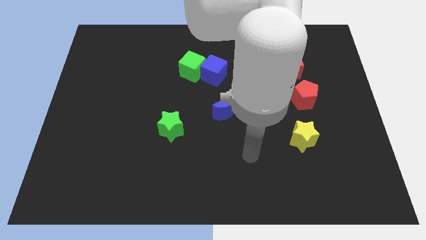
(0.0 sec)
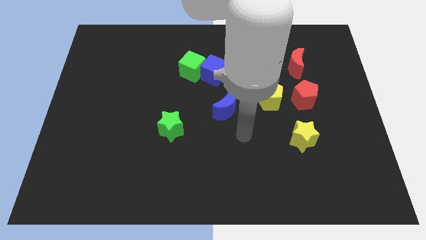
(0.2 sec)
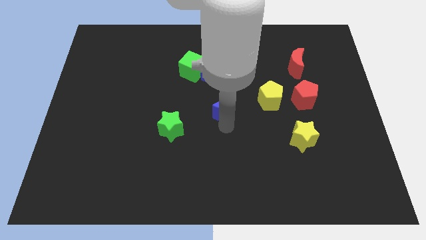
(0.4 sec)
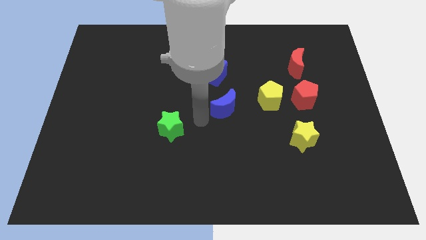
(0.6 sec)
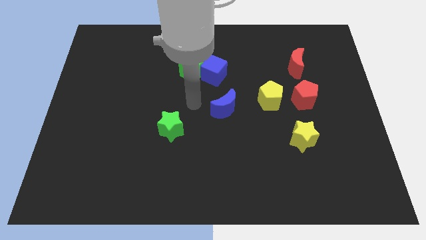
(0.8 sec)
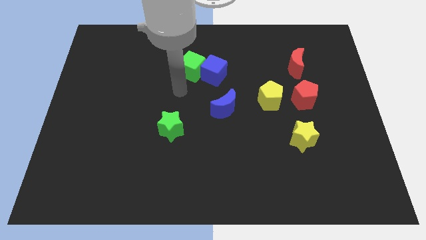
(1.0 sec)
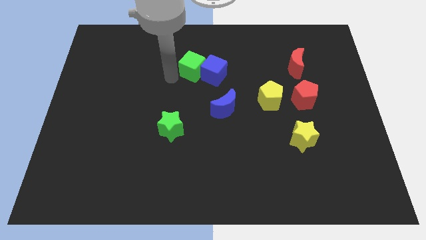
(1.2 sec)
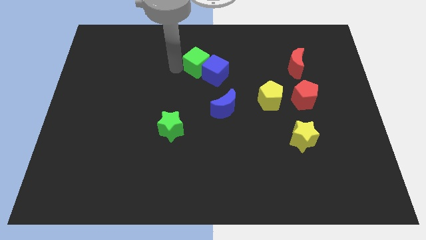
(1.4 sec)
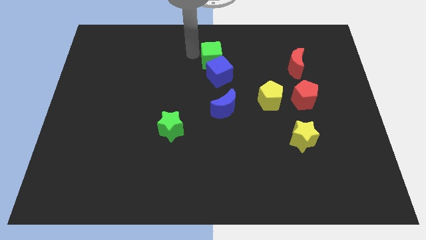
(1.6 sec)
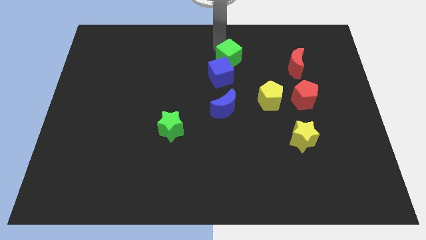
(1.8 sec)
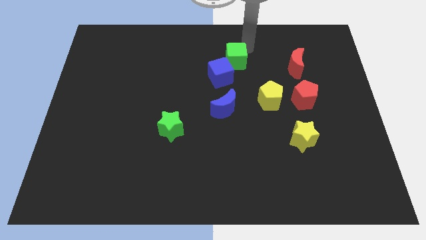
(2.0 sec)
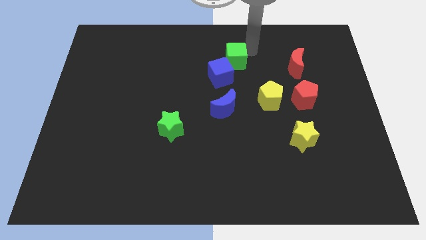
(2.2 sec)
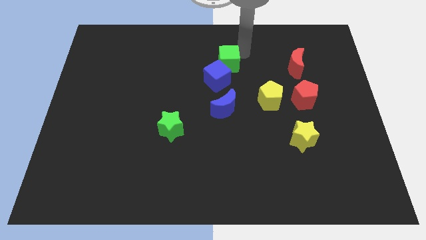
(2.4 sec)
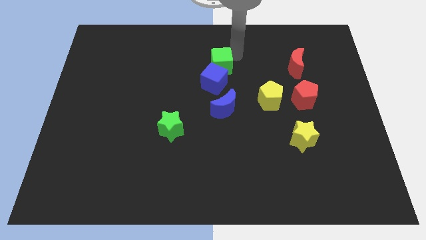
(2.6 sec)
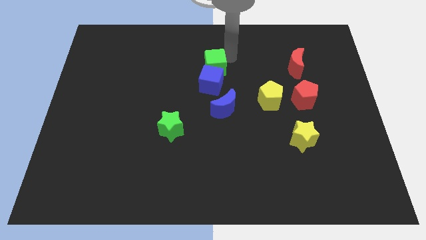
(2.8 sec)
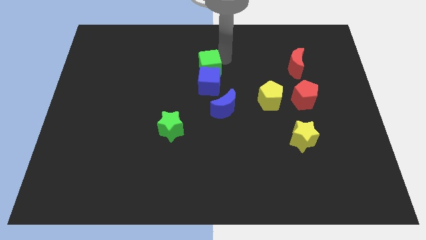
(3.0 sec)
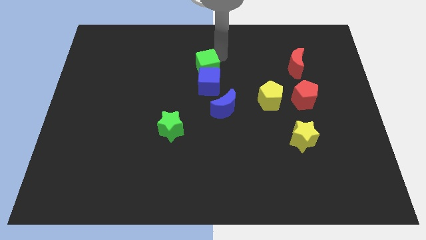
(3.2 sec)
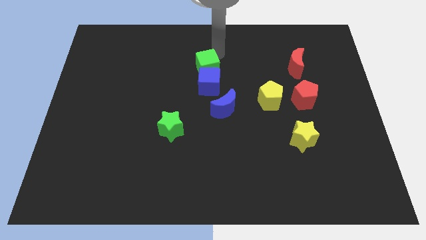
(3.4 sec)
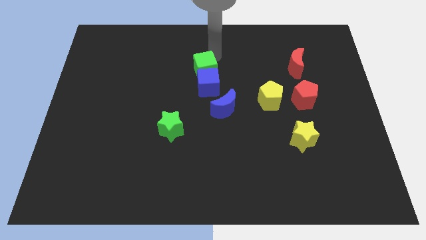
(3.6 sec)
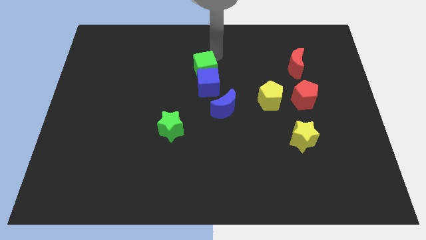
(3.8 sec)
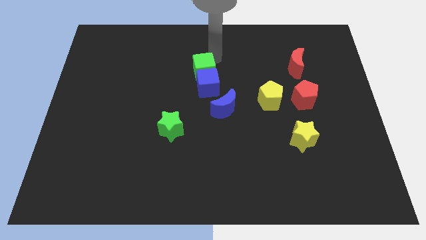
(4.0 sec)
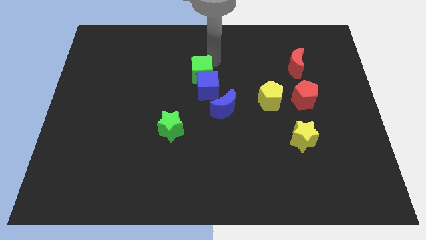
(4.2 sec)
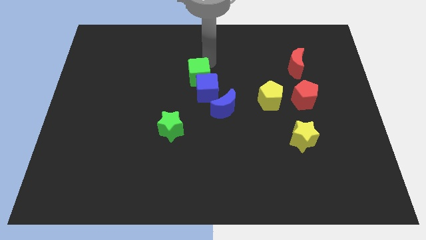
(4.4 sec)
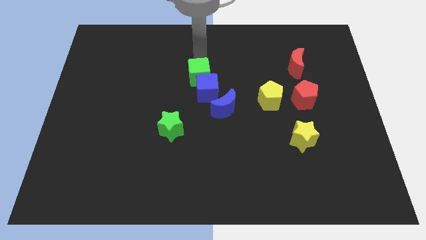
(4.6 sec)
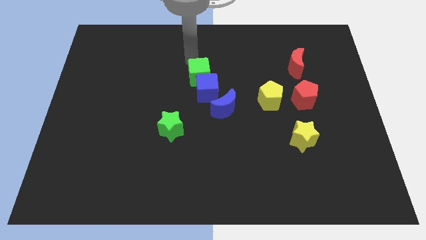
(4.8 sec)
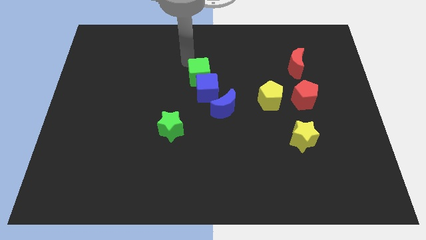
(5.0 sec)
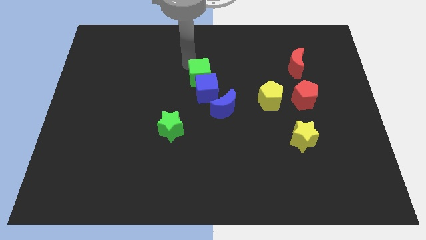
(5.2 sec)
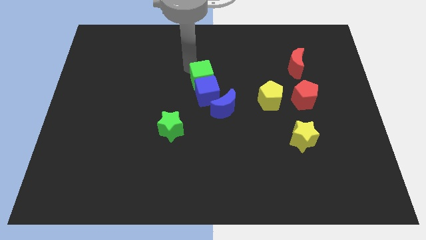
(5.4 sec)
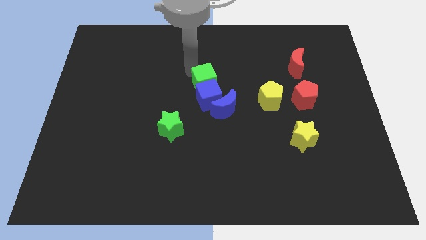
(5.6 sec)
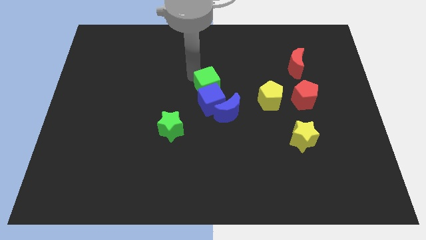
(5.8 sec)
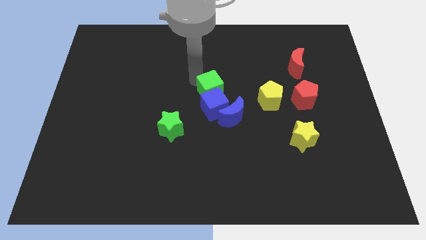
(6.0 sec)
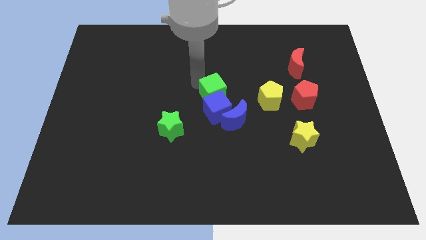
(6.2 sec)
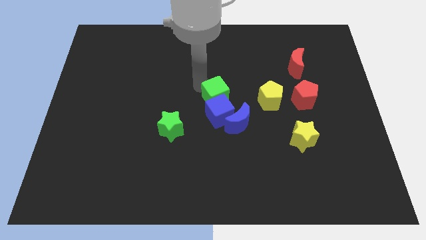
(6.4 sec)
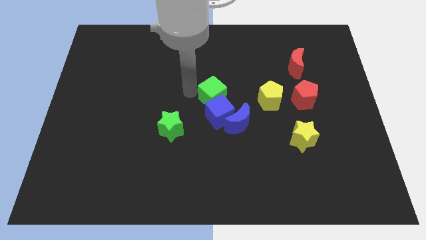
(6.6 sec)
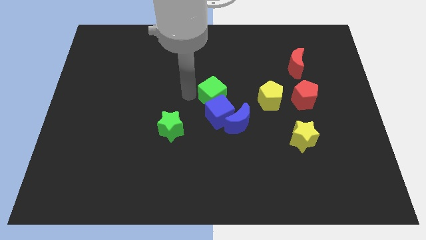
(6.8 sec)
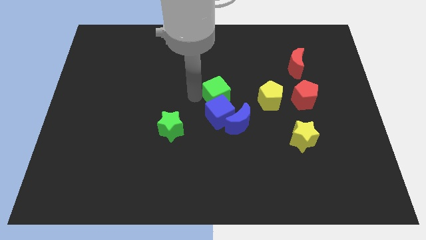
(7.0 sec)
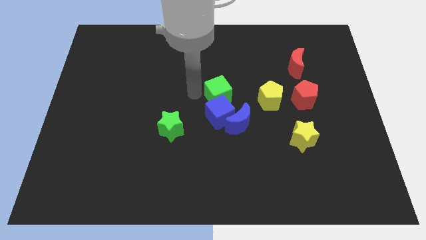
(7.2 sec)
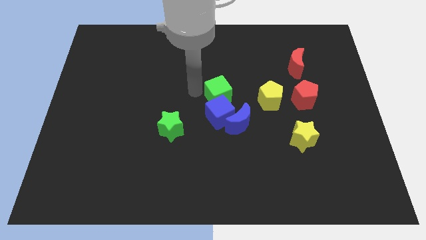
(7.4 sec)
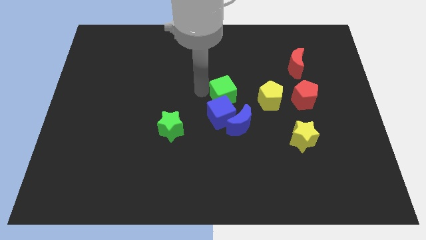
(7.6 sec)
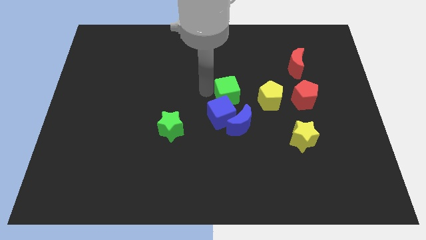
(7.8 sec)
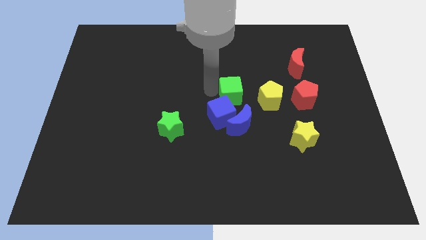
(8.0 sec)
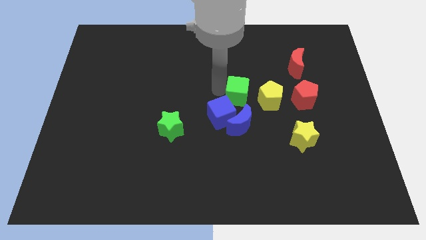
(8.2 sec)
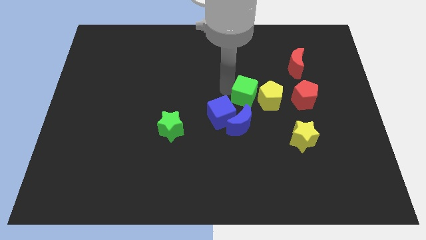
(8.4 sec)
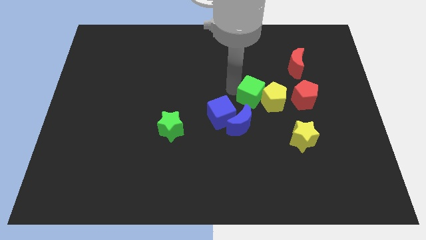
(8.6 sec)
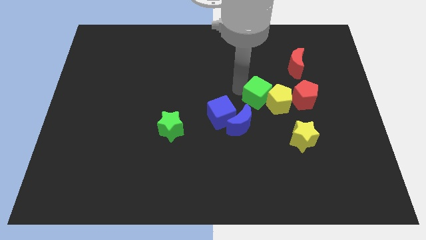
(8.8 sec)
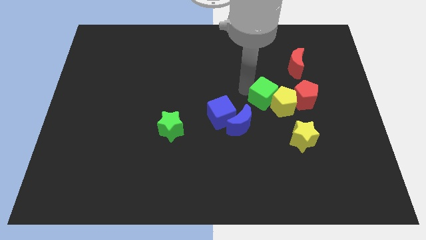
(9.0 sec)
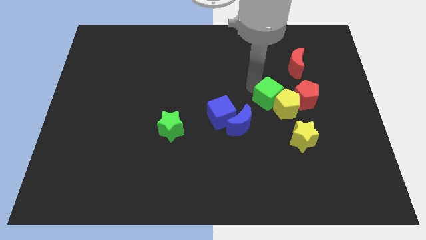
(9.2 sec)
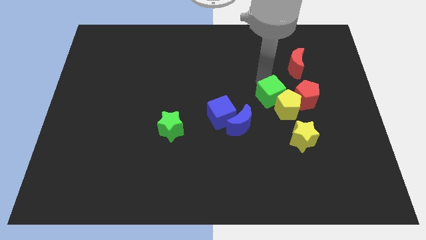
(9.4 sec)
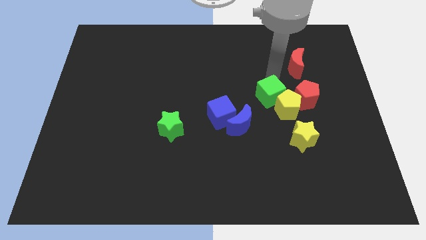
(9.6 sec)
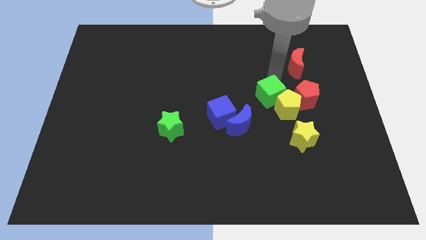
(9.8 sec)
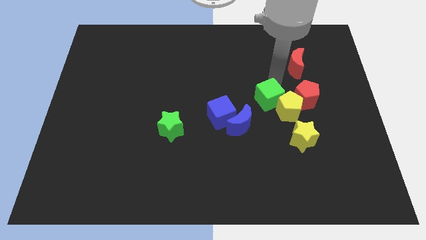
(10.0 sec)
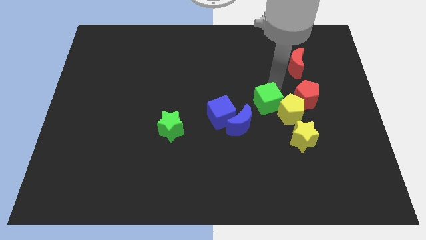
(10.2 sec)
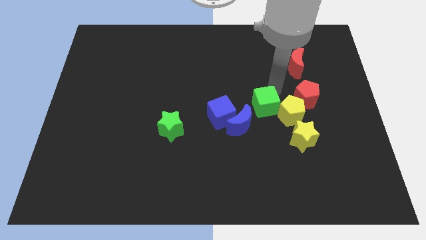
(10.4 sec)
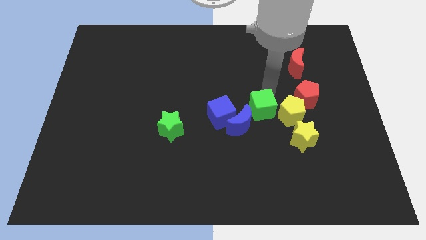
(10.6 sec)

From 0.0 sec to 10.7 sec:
put the green cube just right of the blue moon

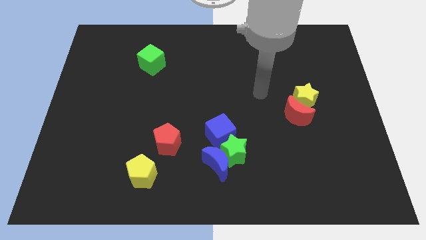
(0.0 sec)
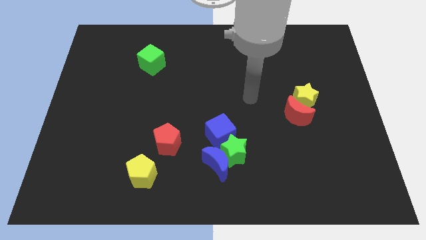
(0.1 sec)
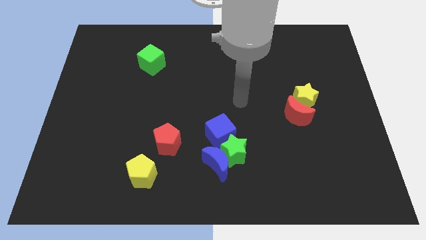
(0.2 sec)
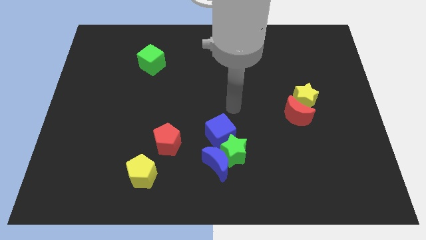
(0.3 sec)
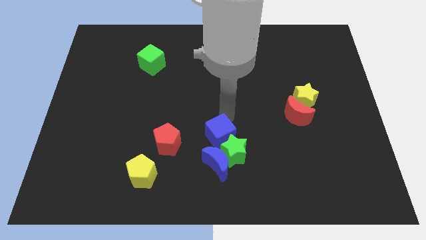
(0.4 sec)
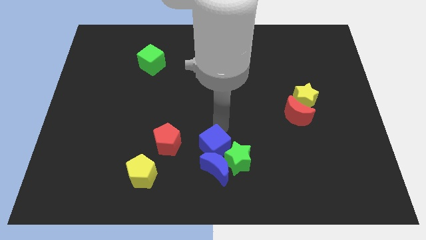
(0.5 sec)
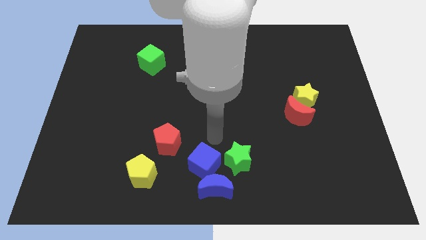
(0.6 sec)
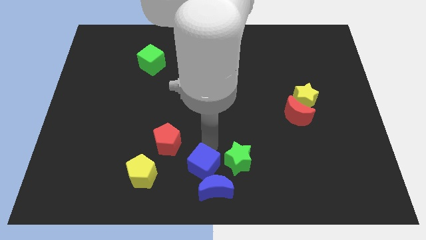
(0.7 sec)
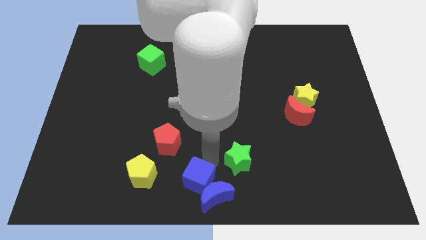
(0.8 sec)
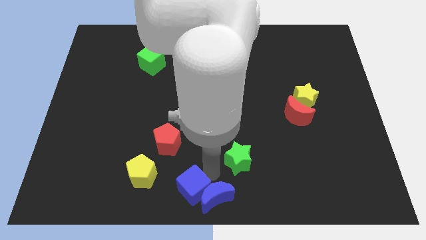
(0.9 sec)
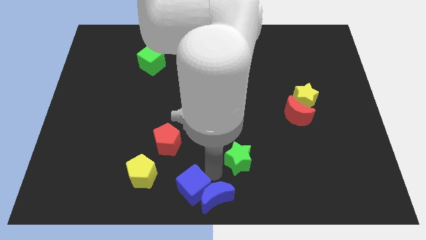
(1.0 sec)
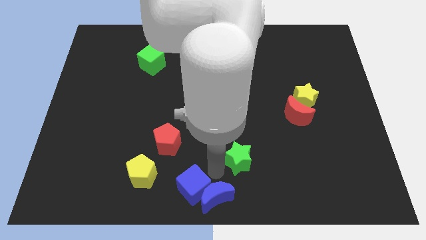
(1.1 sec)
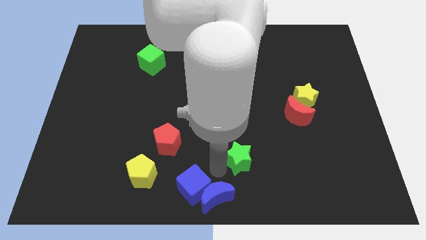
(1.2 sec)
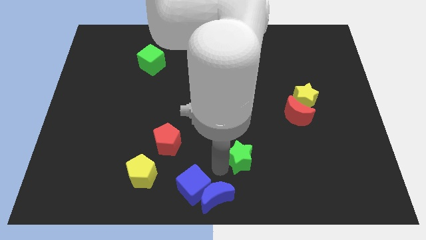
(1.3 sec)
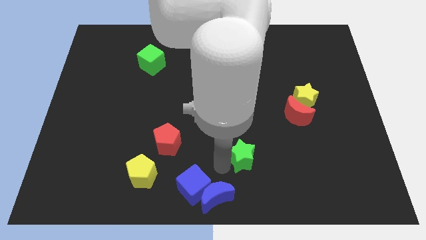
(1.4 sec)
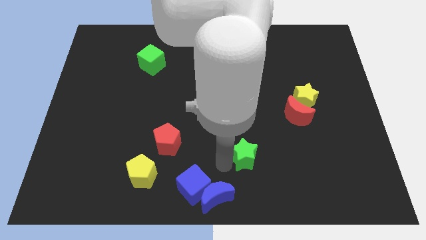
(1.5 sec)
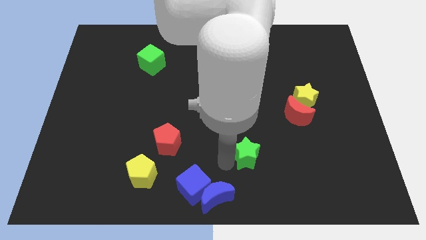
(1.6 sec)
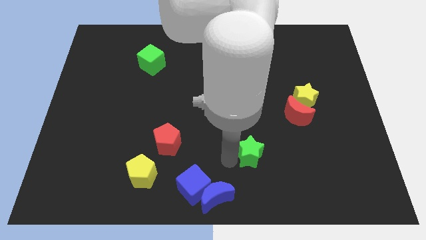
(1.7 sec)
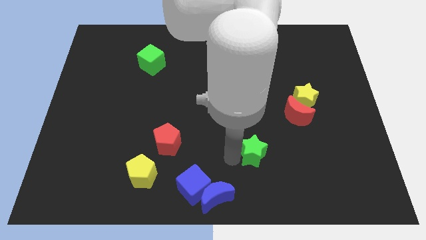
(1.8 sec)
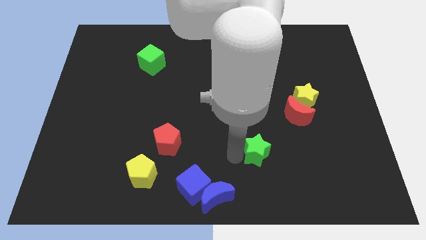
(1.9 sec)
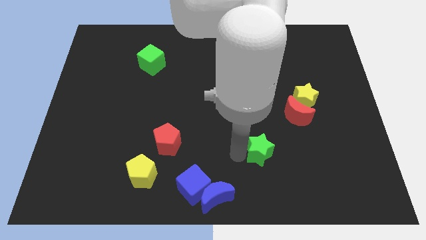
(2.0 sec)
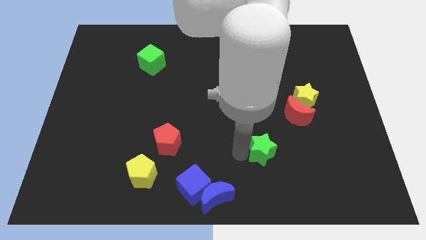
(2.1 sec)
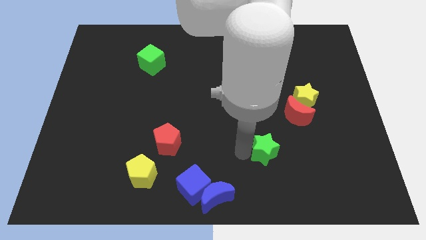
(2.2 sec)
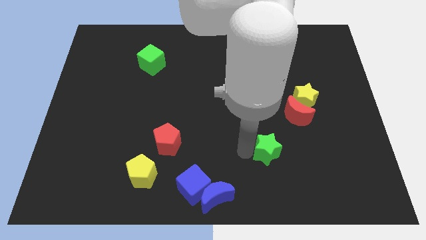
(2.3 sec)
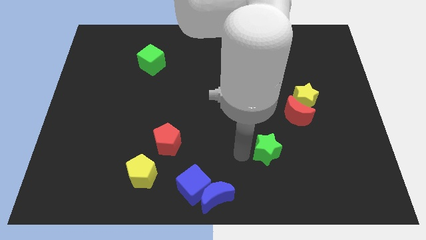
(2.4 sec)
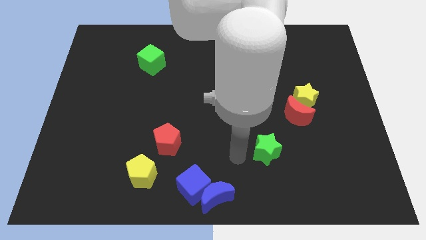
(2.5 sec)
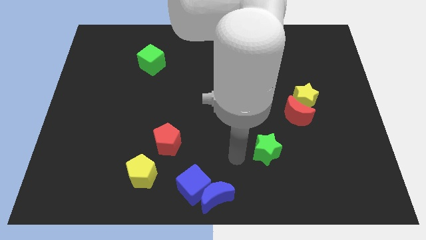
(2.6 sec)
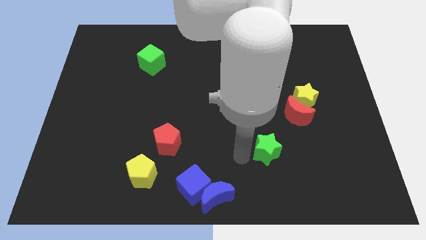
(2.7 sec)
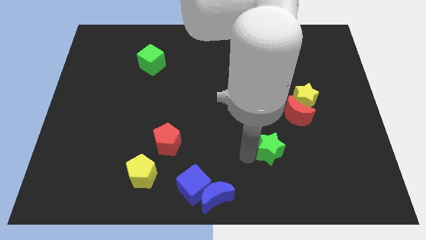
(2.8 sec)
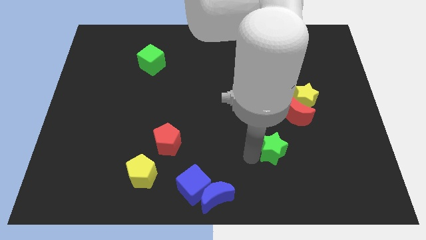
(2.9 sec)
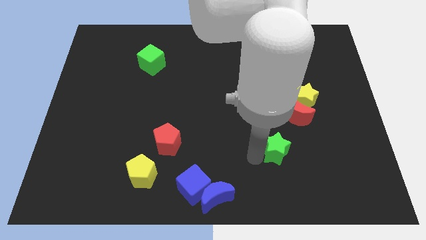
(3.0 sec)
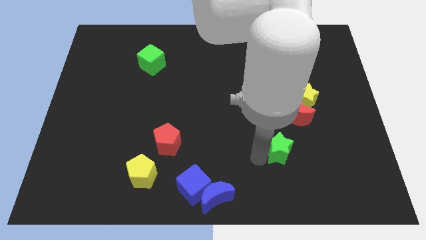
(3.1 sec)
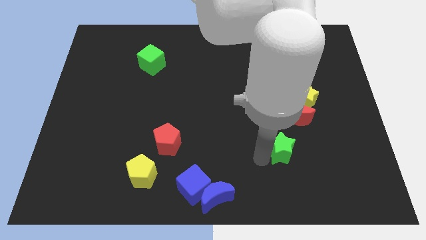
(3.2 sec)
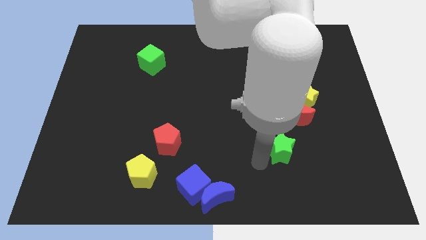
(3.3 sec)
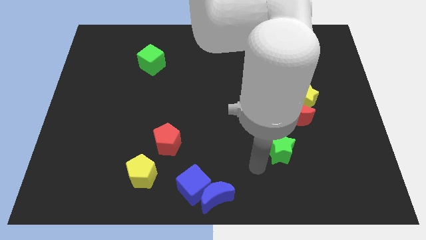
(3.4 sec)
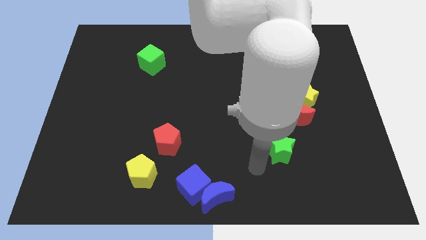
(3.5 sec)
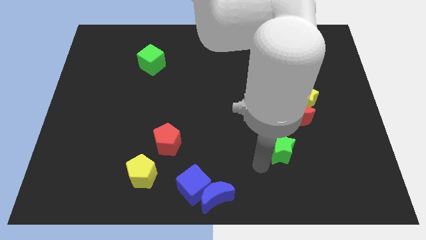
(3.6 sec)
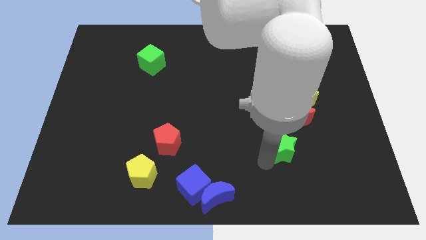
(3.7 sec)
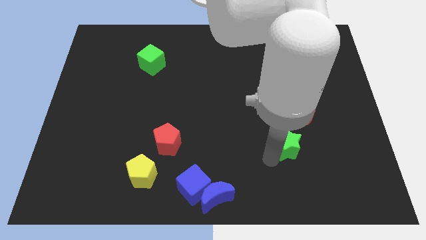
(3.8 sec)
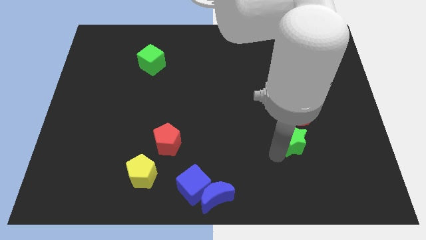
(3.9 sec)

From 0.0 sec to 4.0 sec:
push the green star to the bottom side of the yellow star
